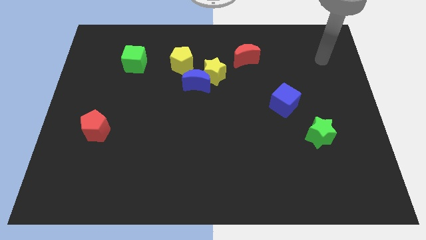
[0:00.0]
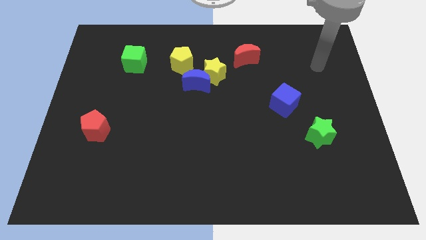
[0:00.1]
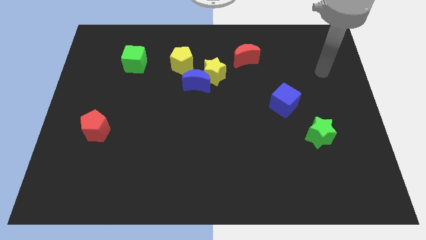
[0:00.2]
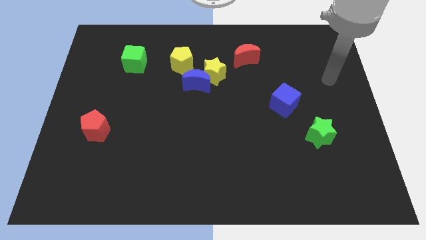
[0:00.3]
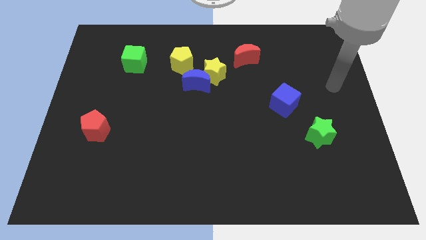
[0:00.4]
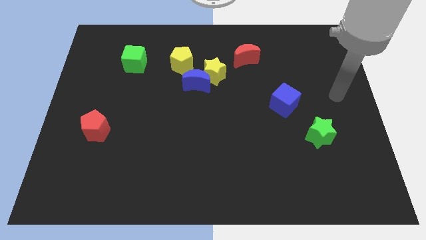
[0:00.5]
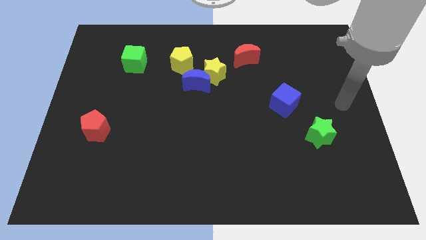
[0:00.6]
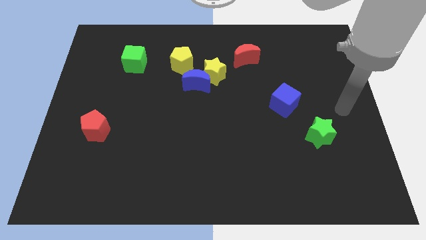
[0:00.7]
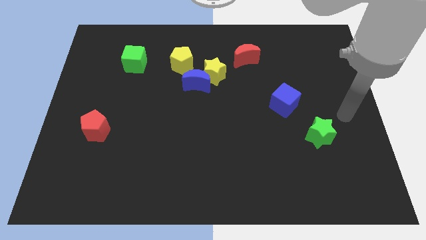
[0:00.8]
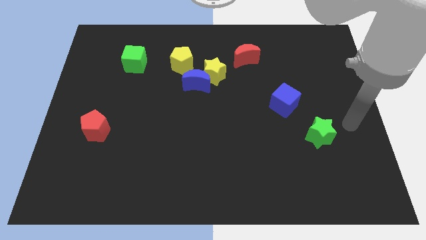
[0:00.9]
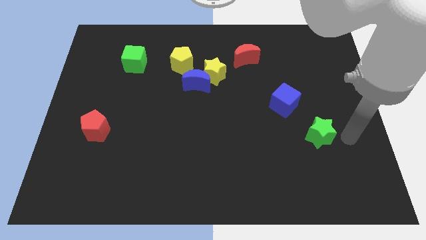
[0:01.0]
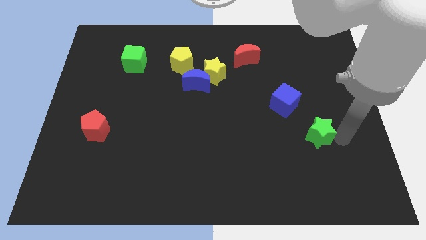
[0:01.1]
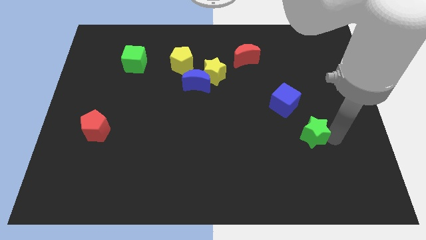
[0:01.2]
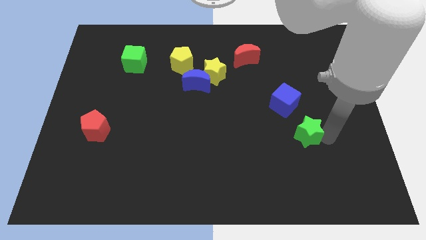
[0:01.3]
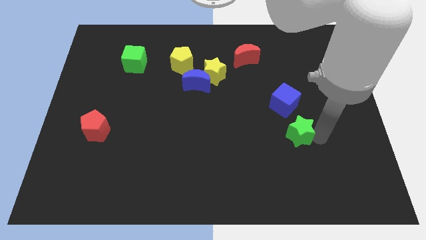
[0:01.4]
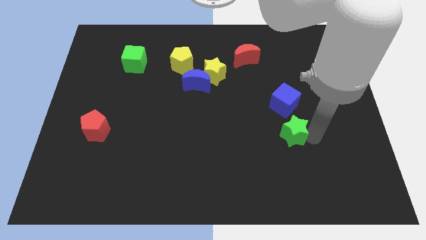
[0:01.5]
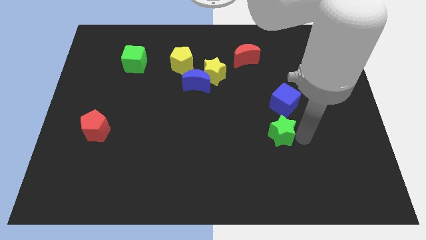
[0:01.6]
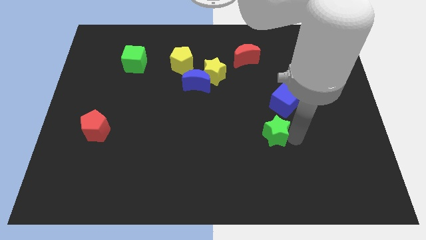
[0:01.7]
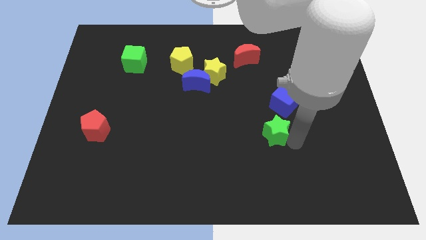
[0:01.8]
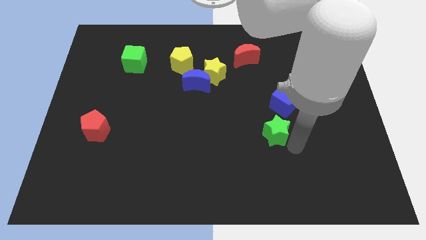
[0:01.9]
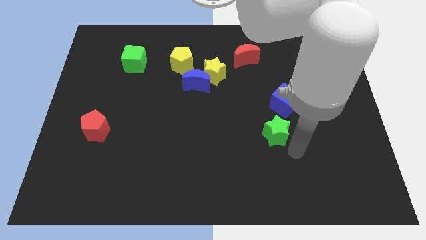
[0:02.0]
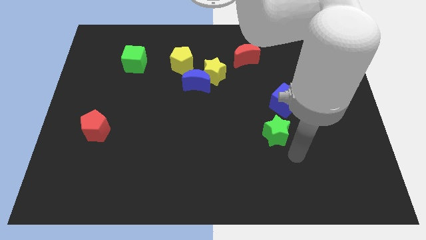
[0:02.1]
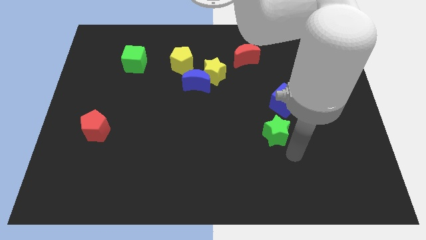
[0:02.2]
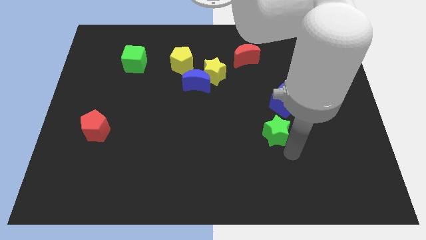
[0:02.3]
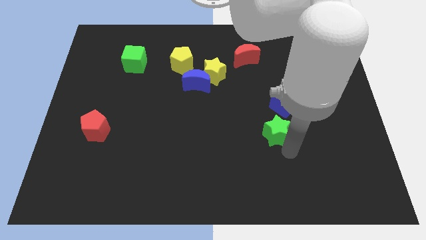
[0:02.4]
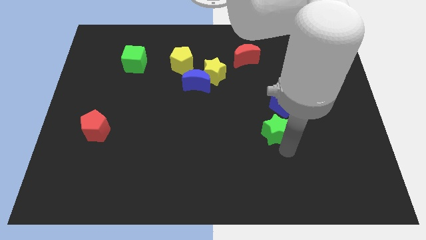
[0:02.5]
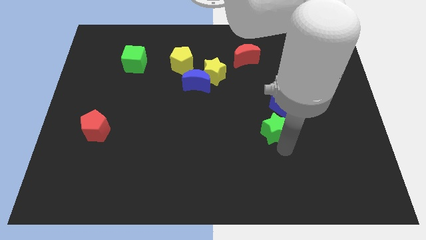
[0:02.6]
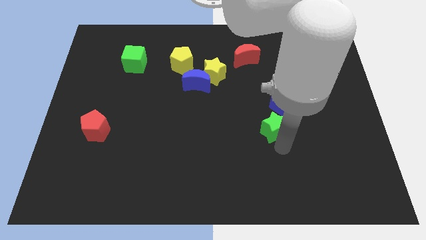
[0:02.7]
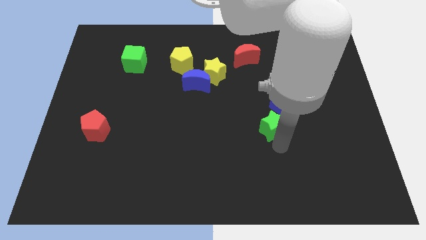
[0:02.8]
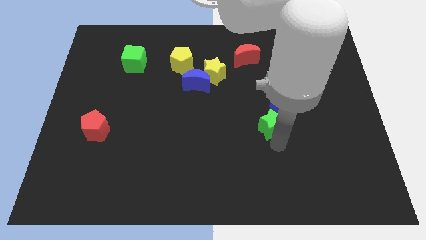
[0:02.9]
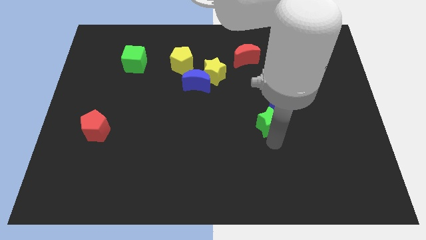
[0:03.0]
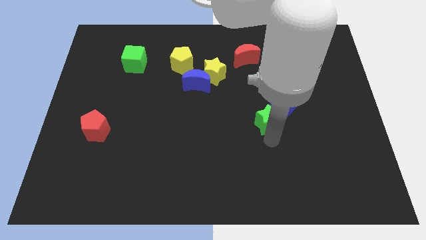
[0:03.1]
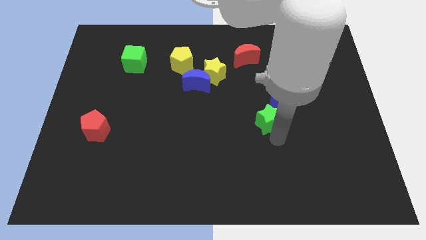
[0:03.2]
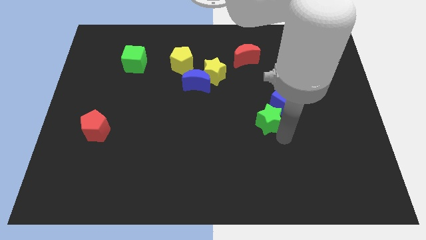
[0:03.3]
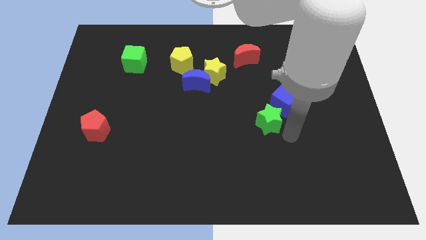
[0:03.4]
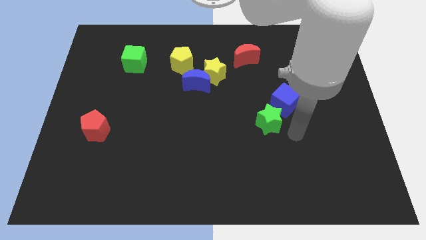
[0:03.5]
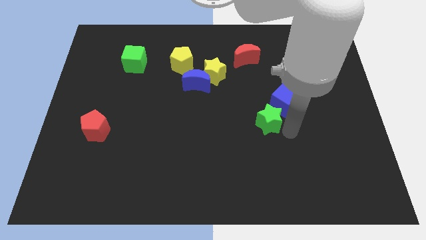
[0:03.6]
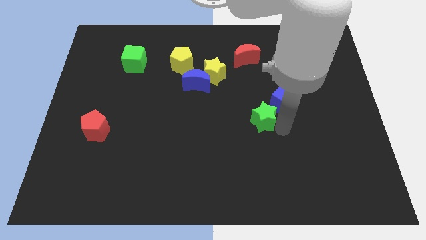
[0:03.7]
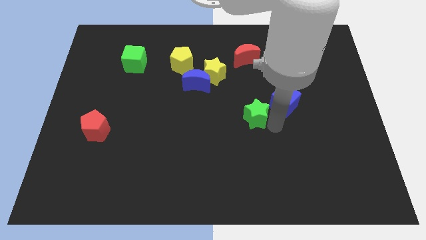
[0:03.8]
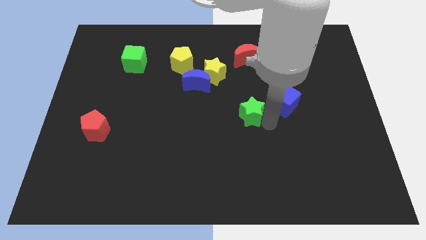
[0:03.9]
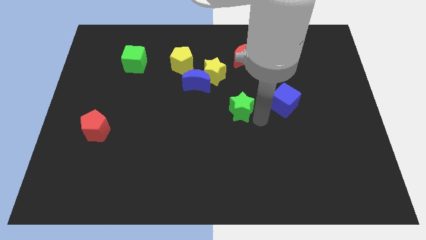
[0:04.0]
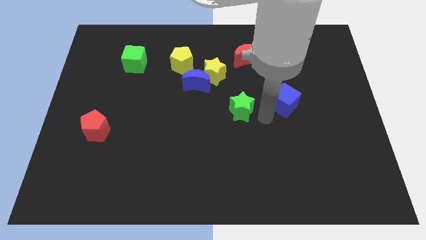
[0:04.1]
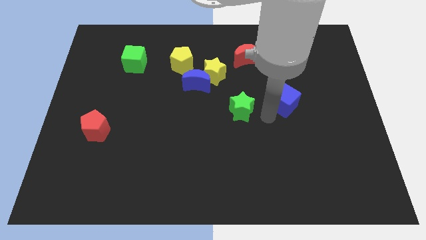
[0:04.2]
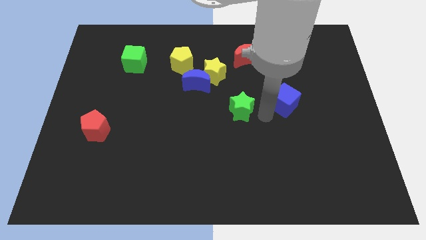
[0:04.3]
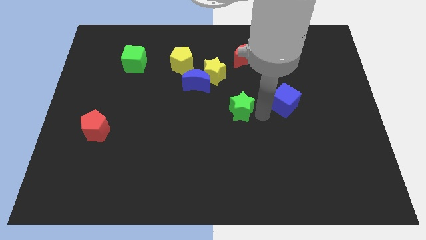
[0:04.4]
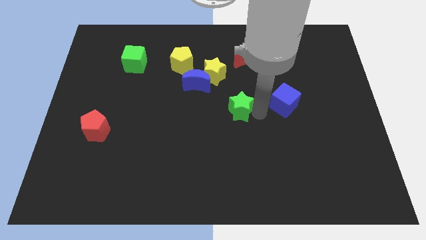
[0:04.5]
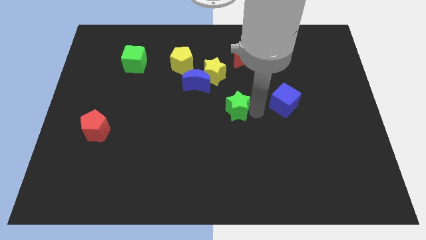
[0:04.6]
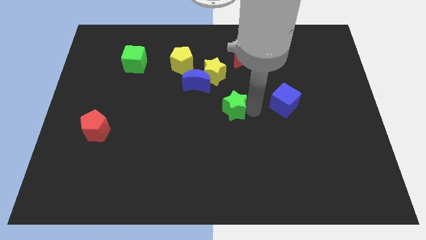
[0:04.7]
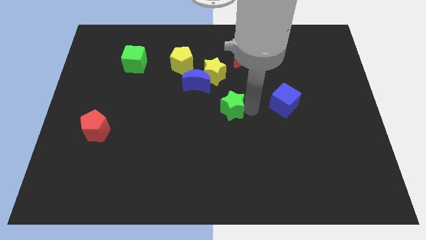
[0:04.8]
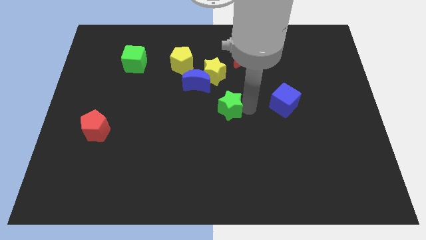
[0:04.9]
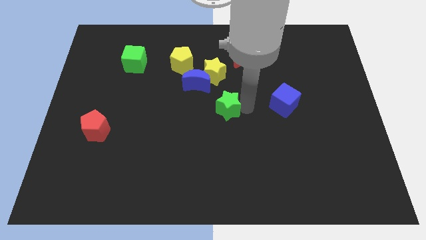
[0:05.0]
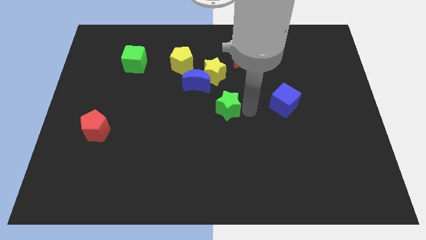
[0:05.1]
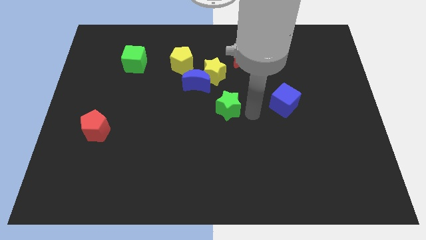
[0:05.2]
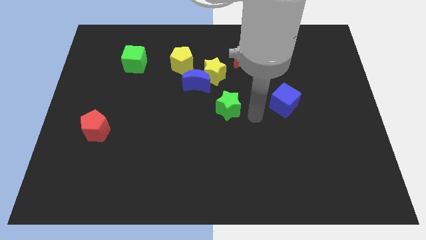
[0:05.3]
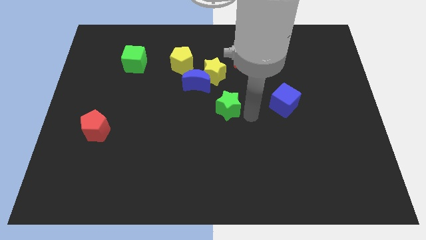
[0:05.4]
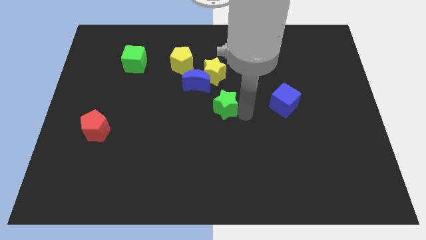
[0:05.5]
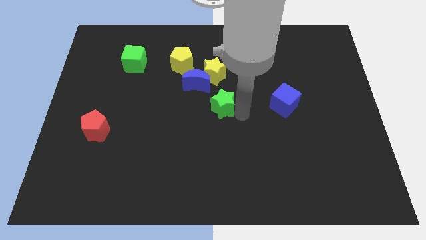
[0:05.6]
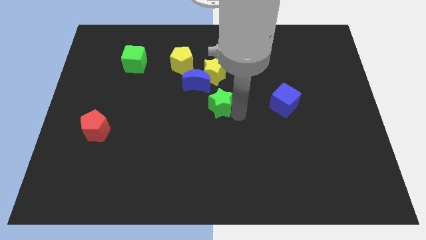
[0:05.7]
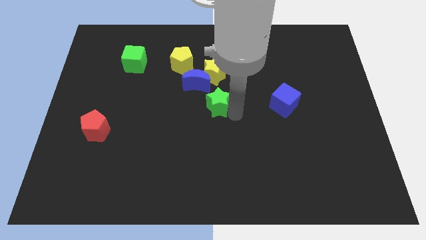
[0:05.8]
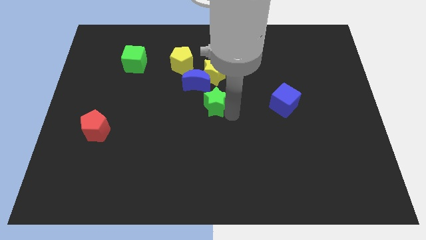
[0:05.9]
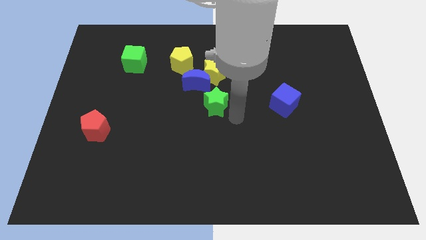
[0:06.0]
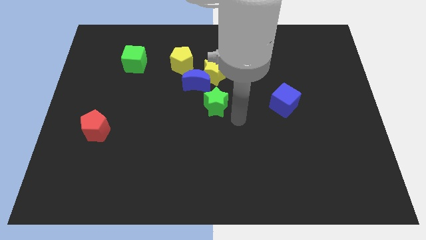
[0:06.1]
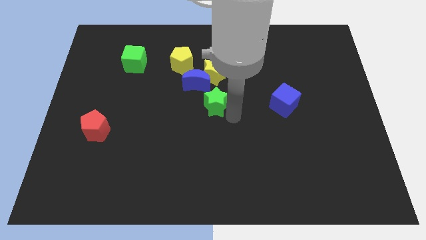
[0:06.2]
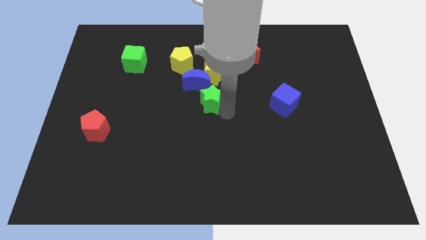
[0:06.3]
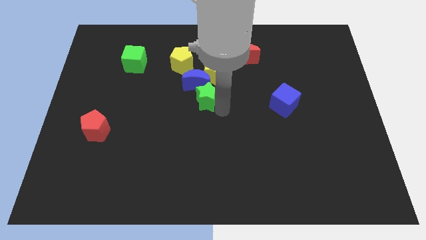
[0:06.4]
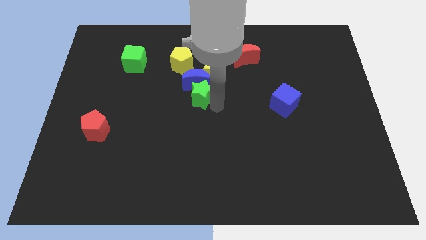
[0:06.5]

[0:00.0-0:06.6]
slide the green star to the bottom of the yellow pentagon
